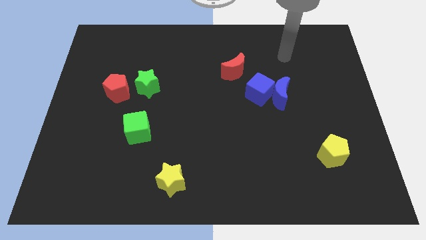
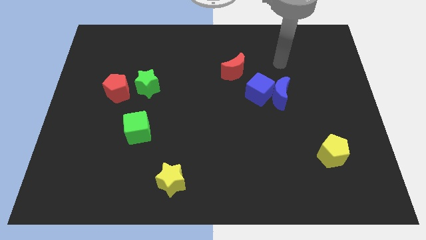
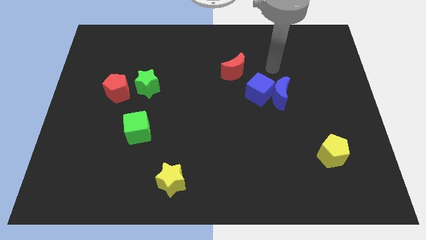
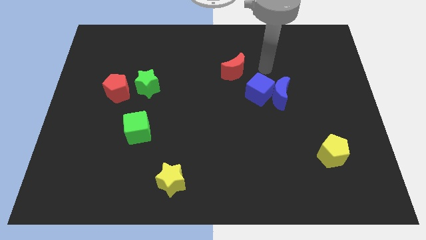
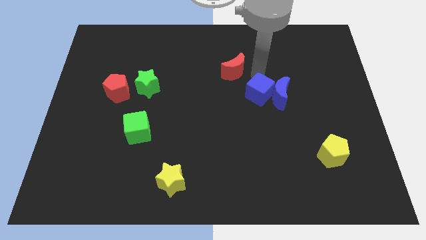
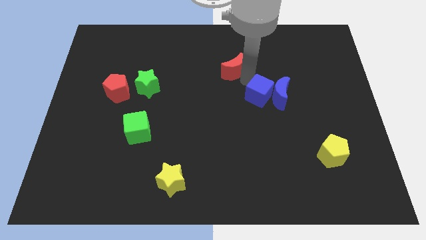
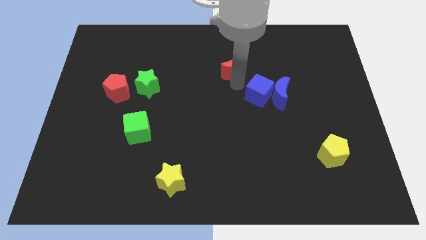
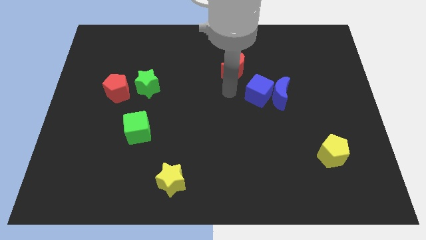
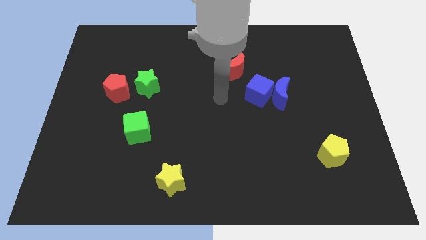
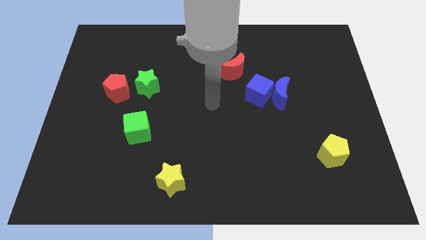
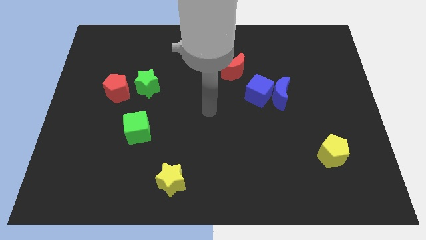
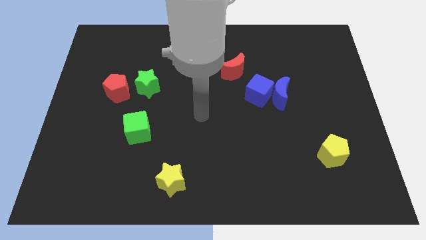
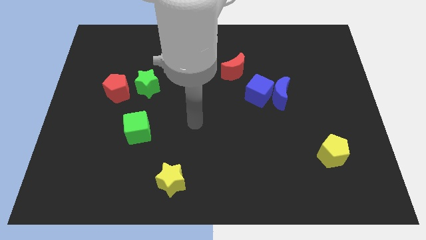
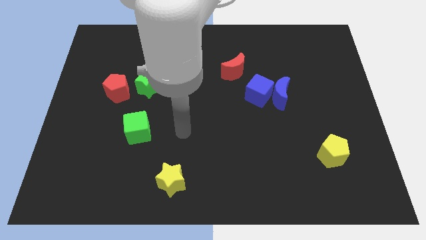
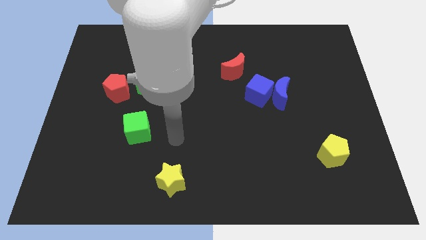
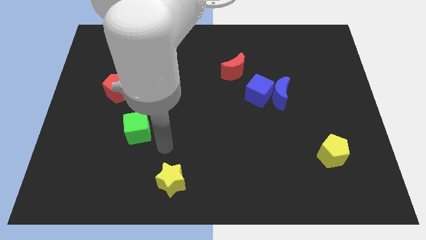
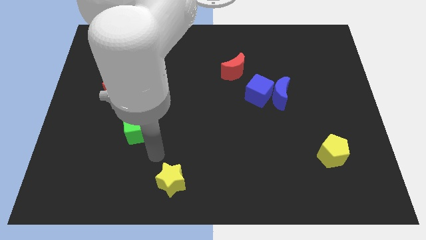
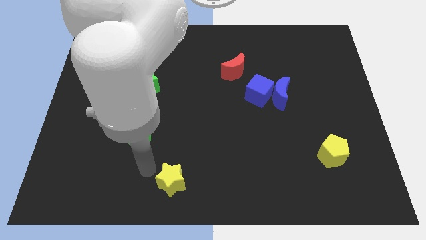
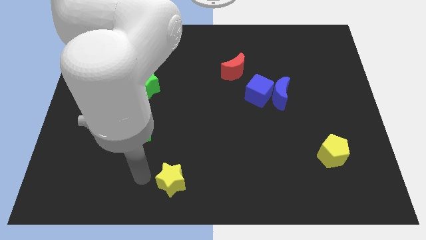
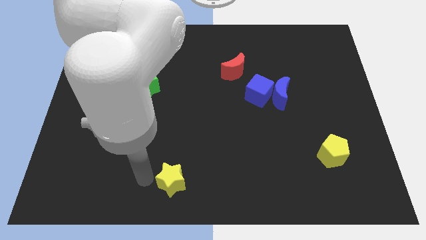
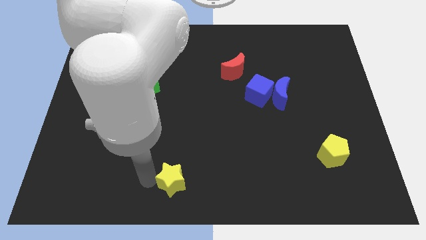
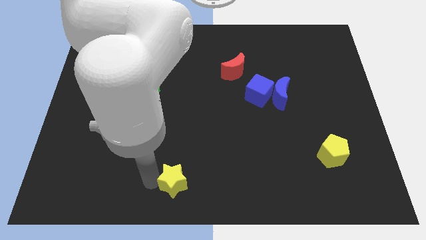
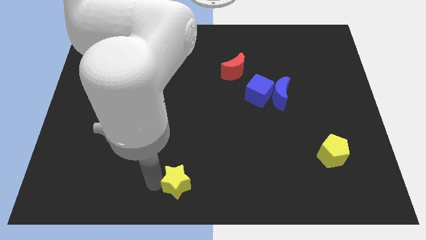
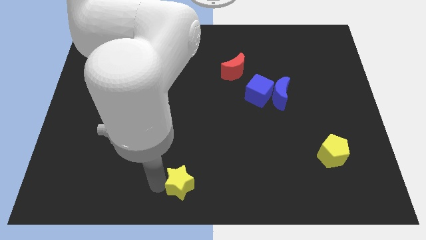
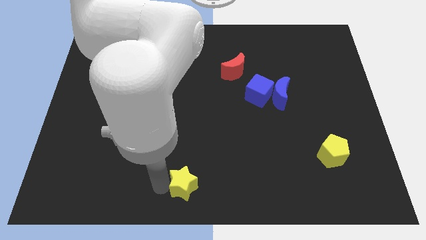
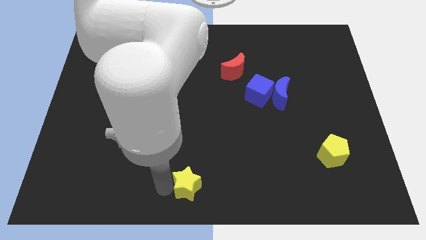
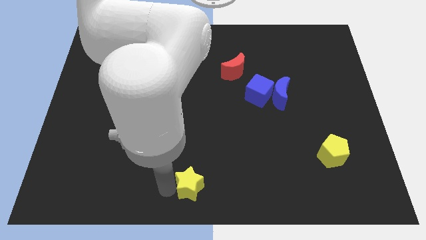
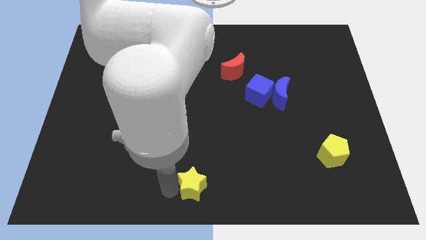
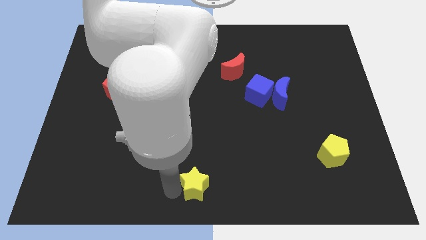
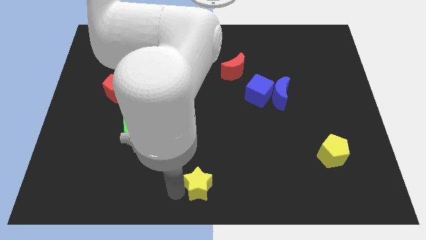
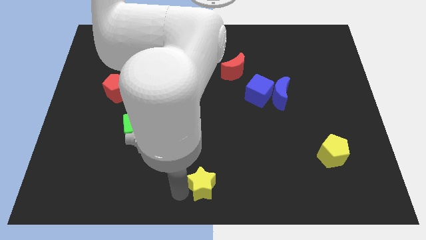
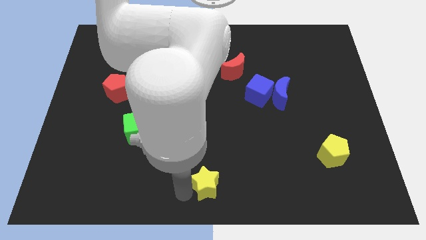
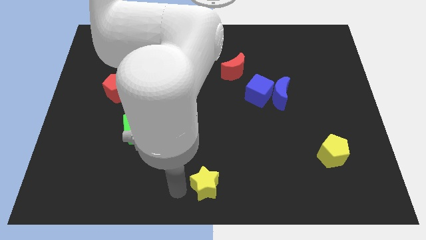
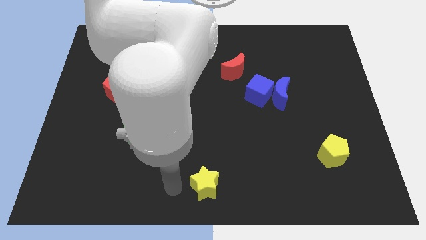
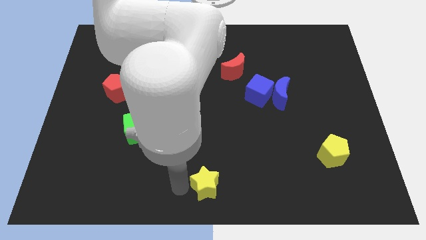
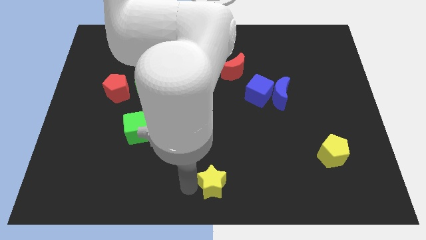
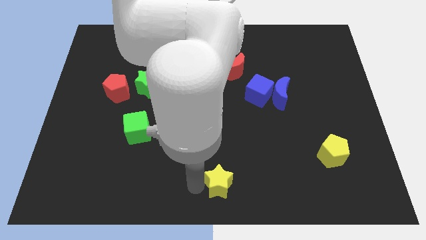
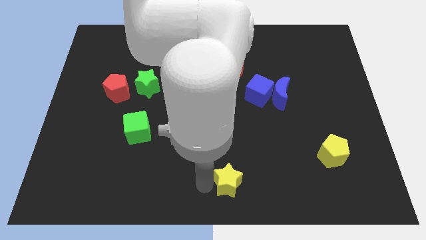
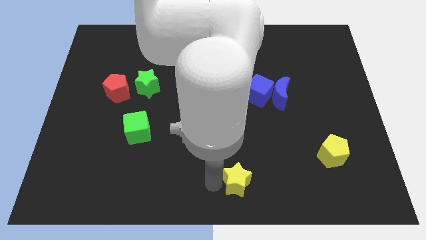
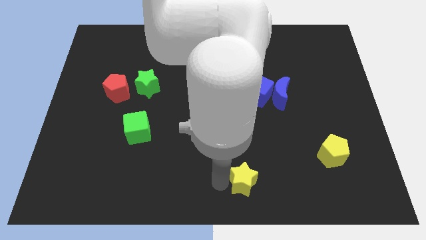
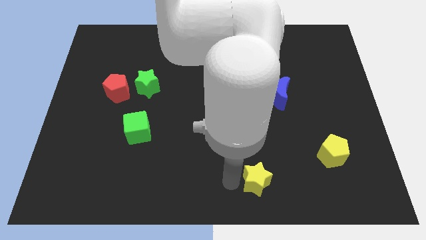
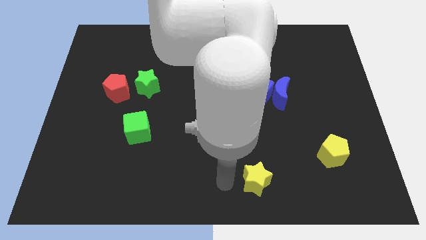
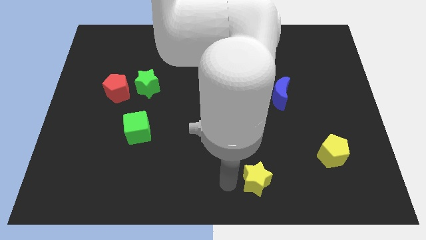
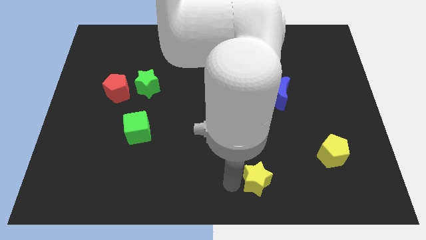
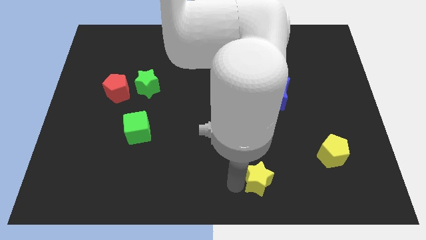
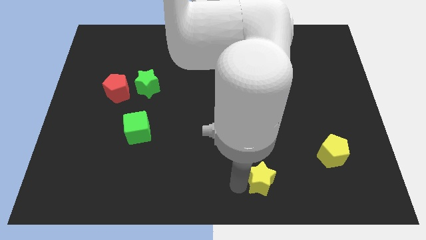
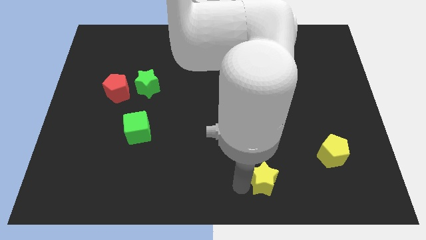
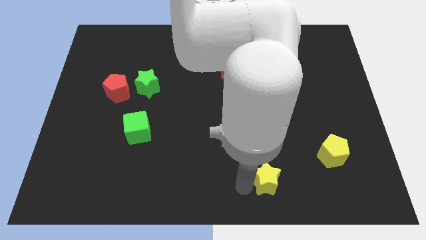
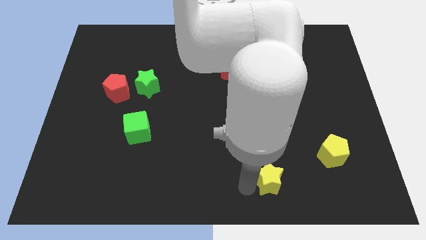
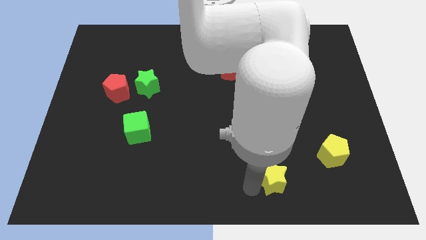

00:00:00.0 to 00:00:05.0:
push the yellow star right

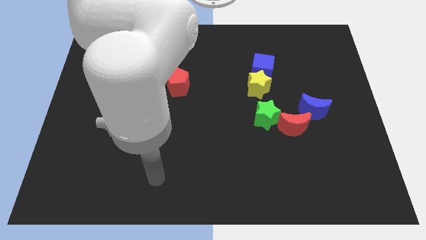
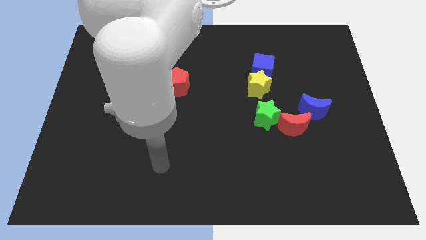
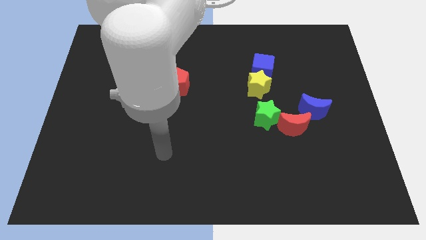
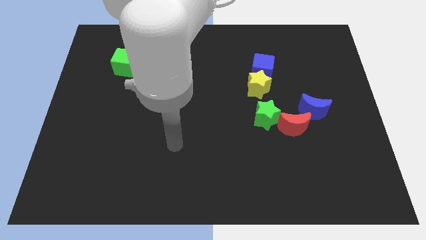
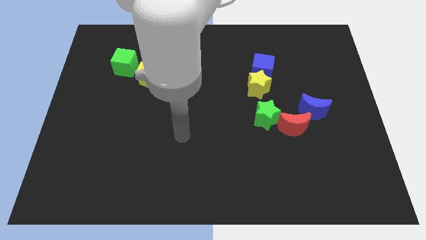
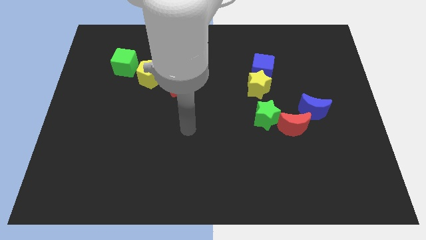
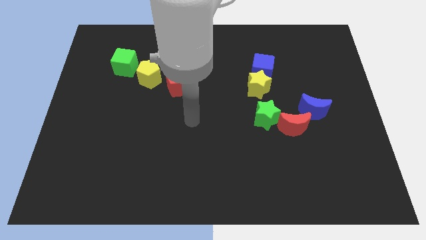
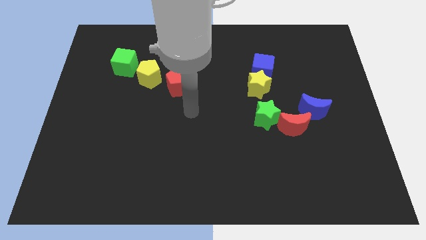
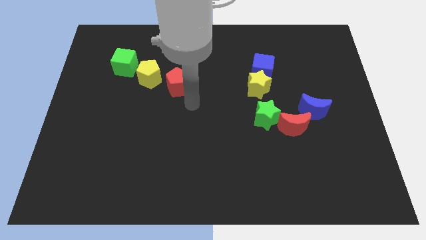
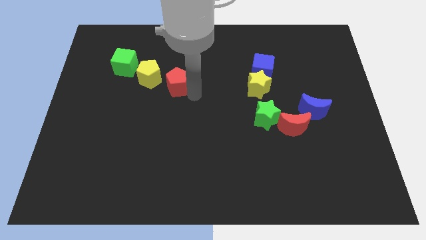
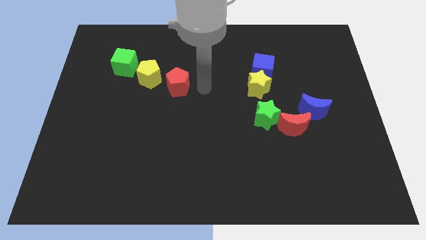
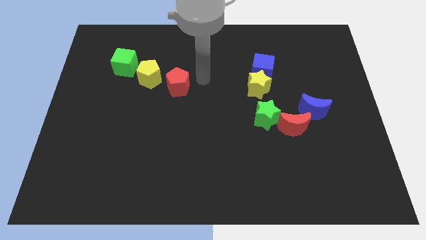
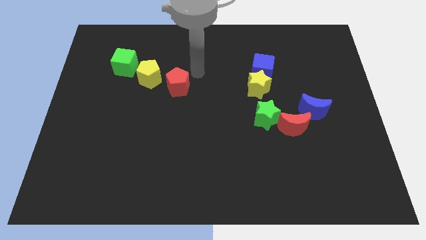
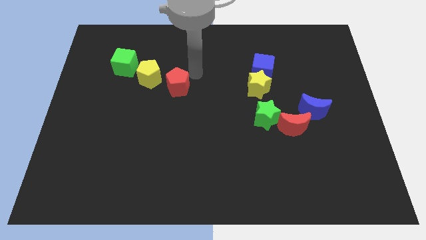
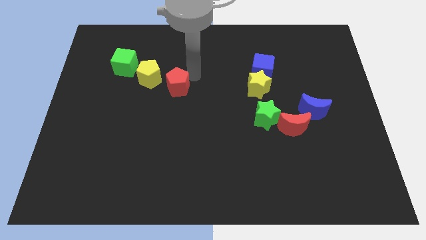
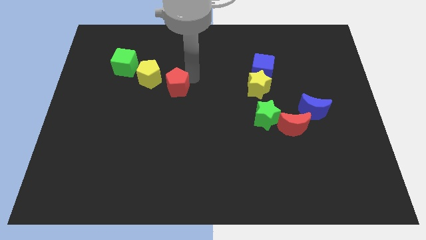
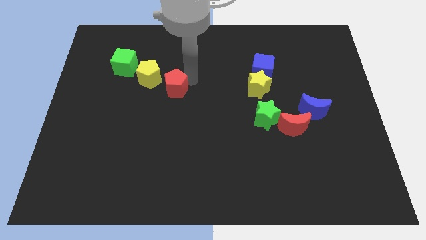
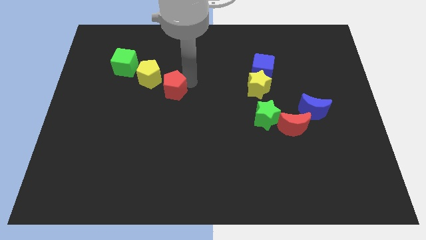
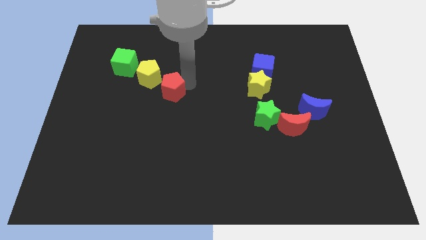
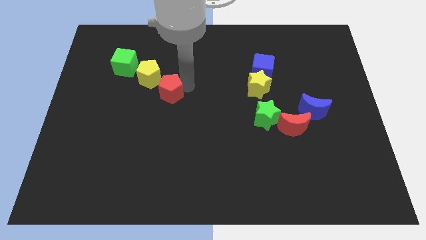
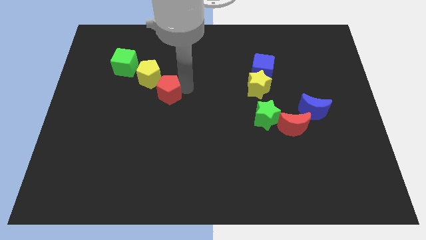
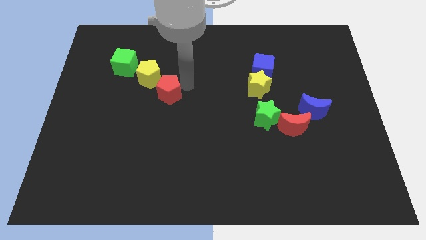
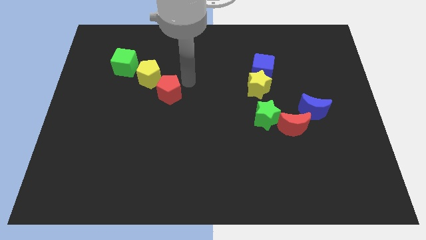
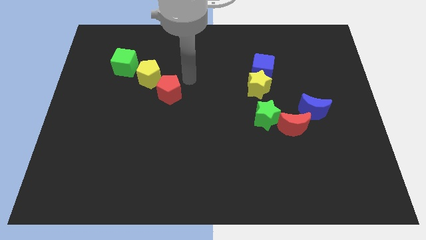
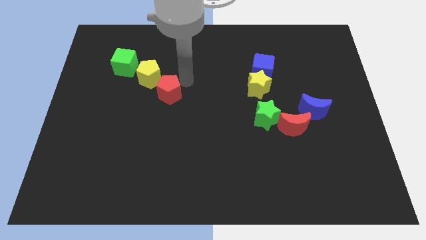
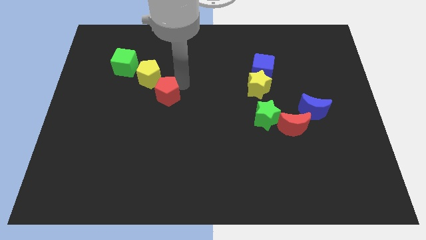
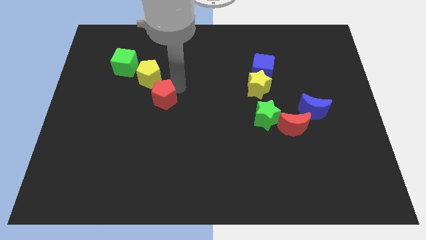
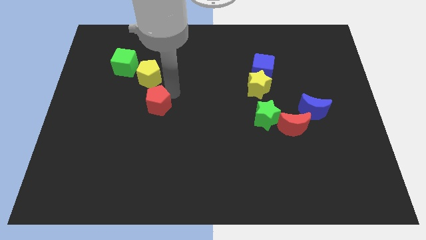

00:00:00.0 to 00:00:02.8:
slightly slide the red pentagon diagonally downwards and left

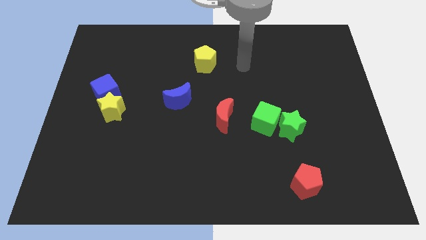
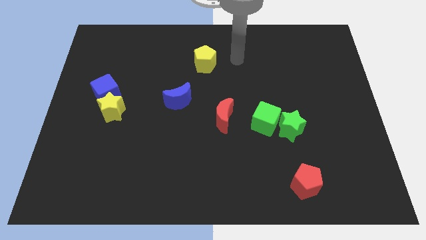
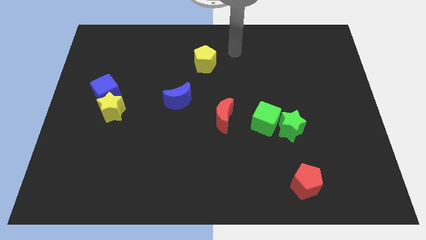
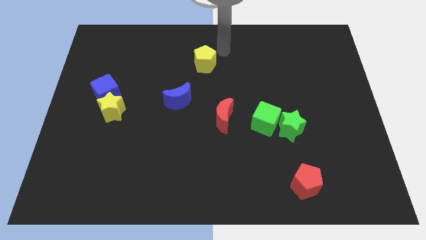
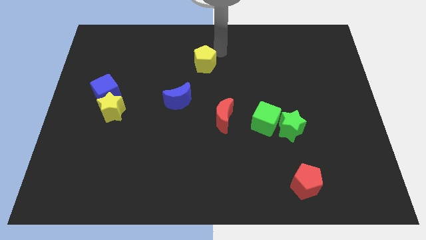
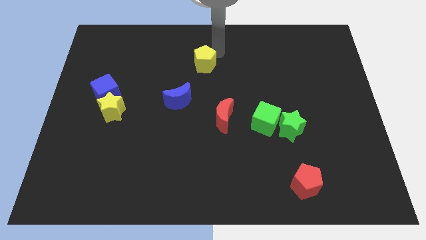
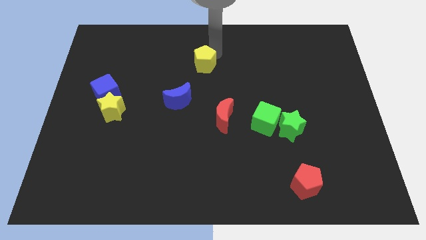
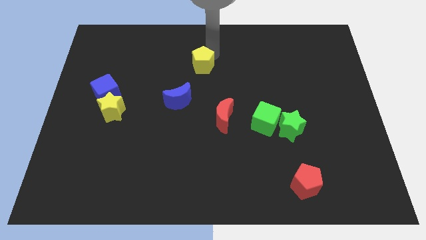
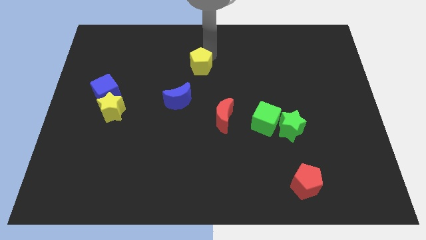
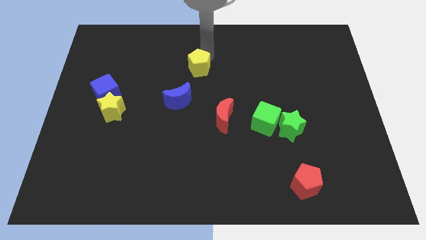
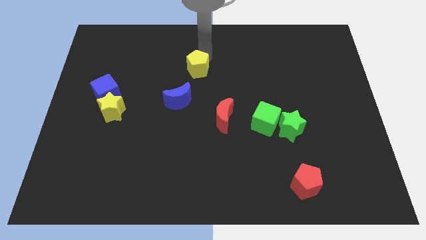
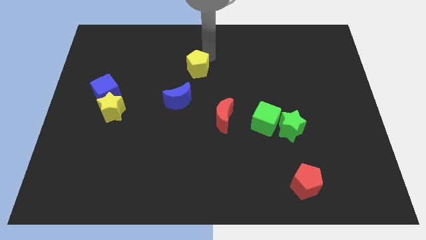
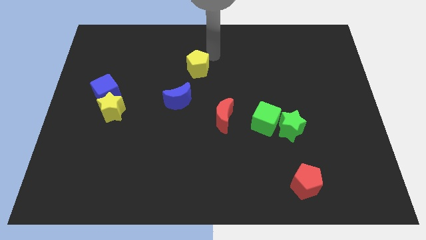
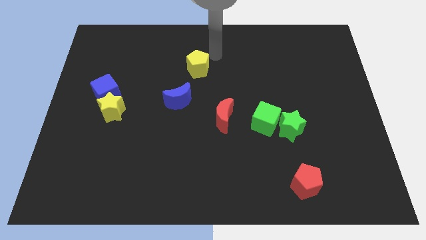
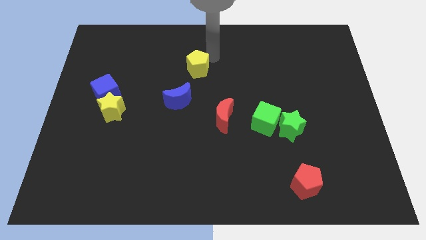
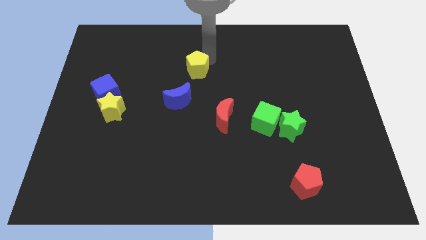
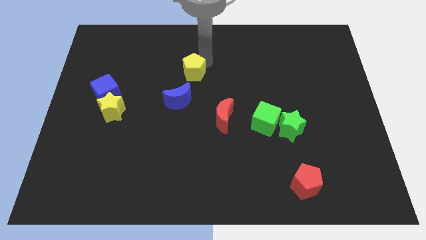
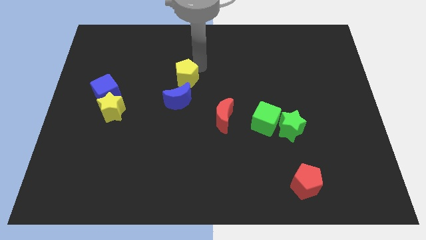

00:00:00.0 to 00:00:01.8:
move the yellow pentagon downwards and to the left somewhat
